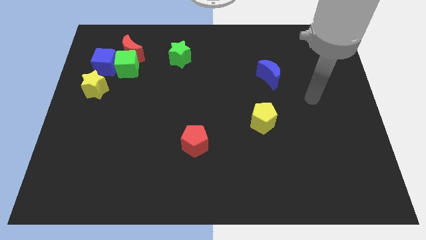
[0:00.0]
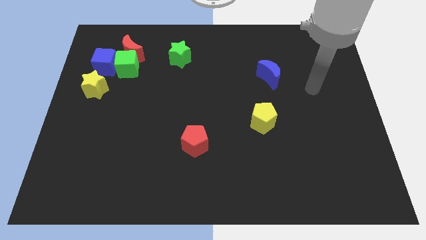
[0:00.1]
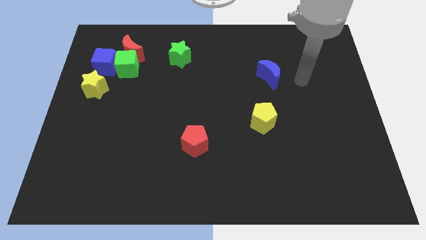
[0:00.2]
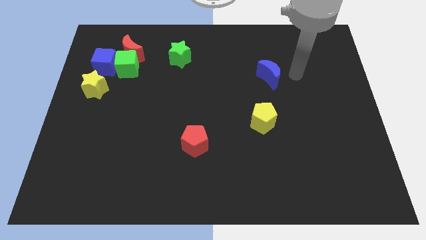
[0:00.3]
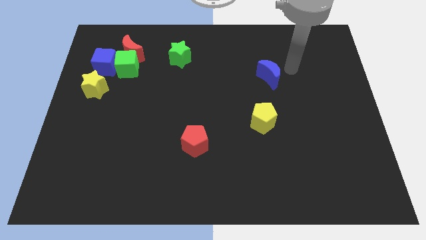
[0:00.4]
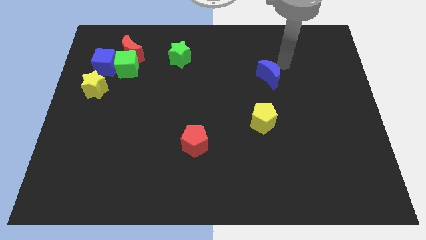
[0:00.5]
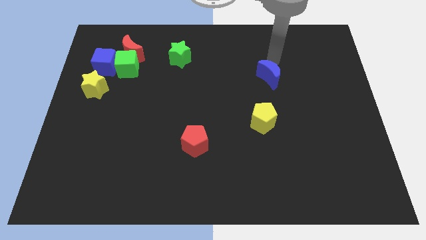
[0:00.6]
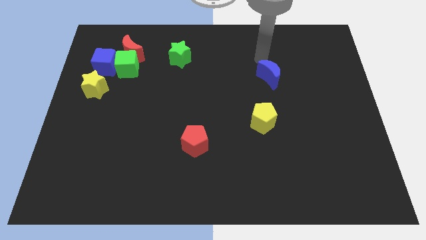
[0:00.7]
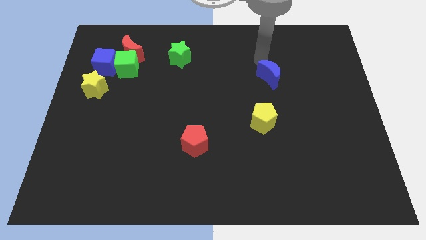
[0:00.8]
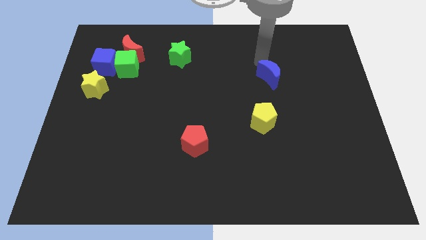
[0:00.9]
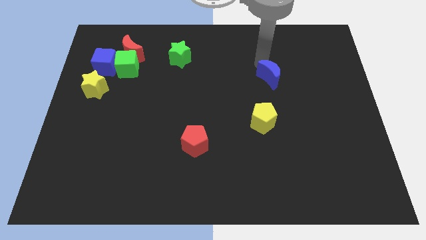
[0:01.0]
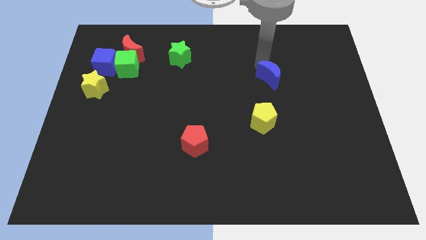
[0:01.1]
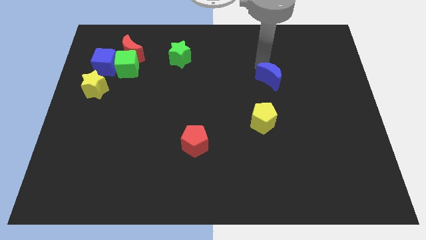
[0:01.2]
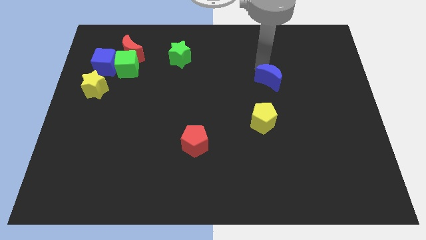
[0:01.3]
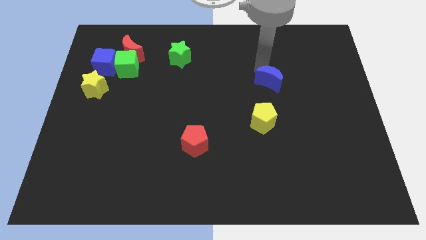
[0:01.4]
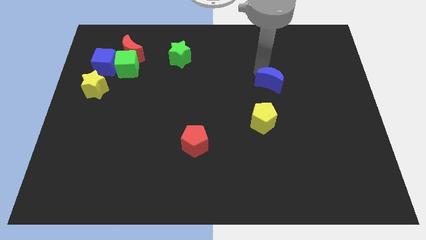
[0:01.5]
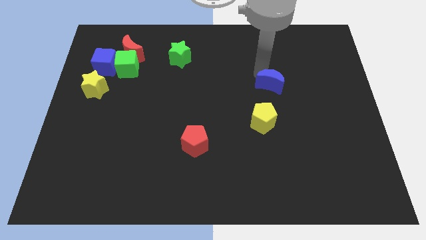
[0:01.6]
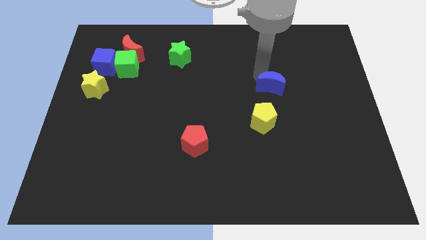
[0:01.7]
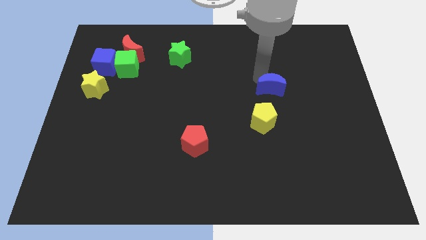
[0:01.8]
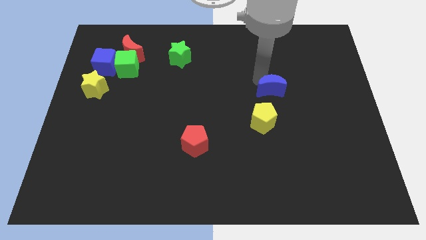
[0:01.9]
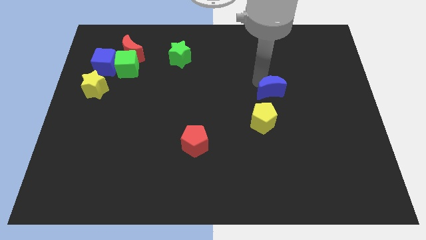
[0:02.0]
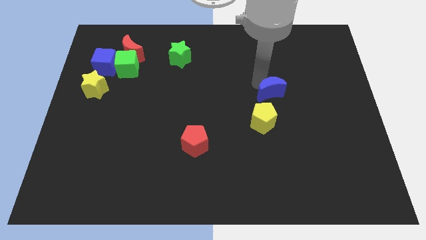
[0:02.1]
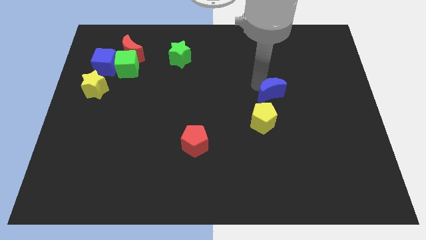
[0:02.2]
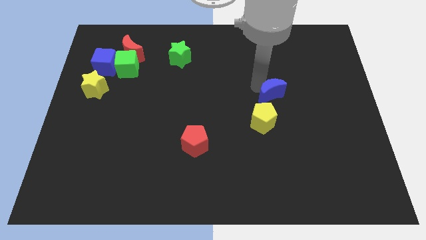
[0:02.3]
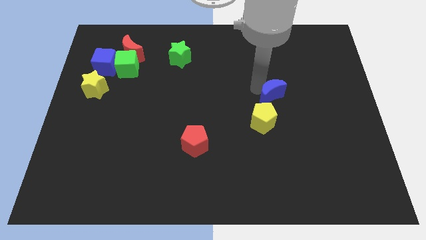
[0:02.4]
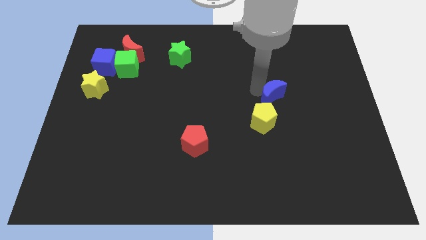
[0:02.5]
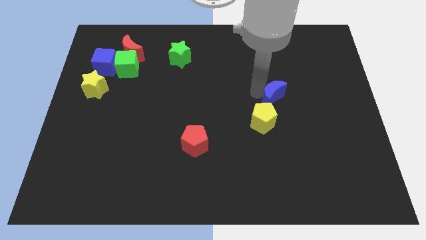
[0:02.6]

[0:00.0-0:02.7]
slightly slide the blue moon downwards

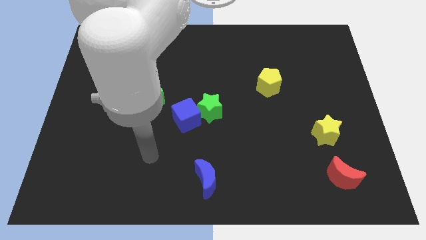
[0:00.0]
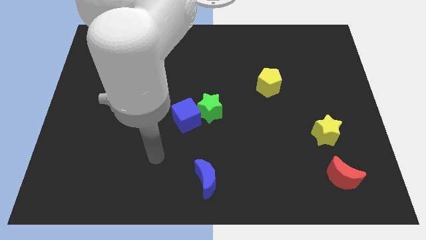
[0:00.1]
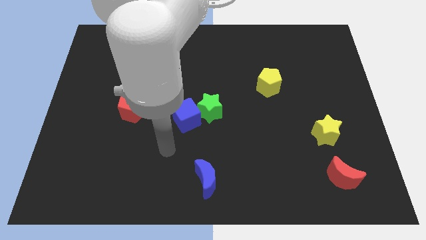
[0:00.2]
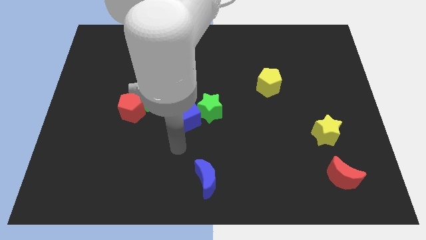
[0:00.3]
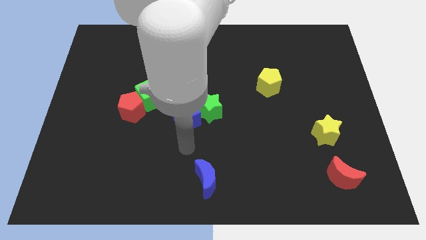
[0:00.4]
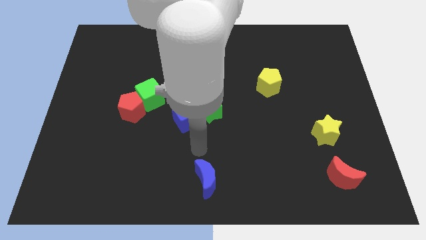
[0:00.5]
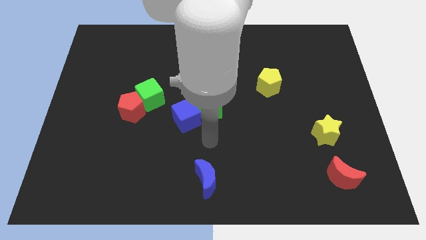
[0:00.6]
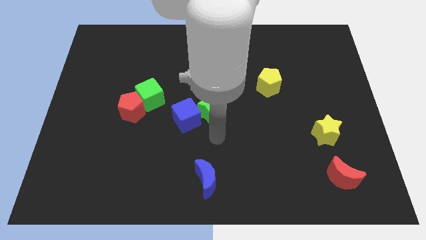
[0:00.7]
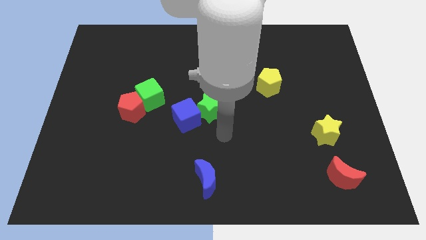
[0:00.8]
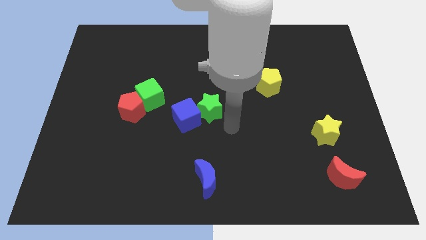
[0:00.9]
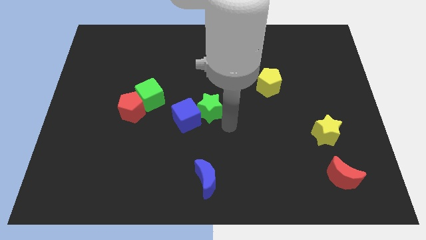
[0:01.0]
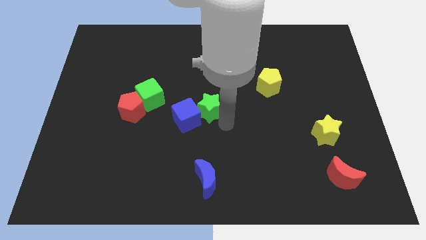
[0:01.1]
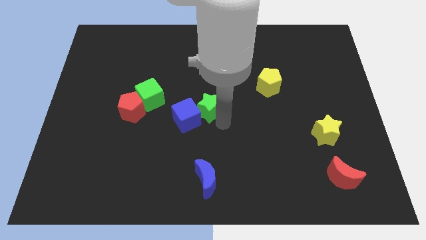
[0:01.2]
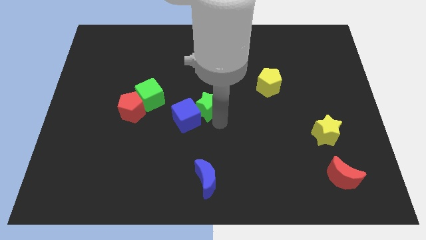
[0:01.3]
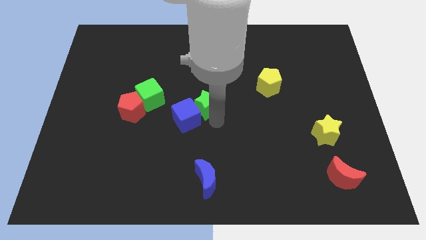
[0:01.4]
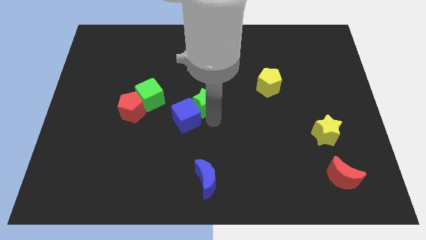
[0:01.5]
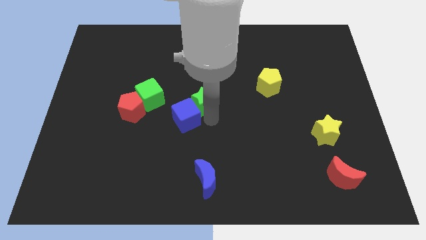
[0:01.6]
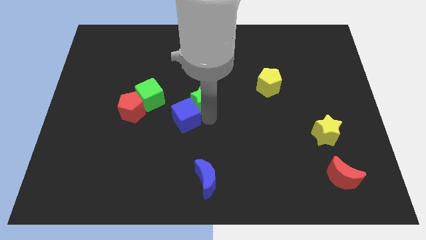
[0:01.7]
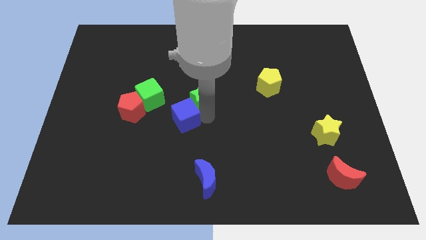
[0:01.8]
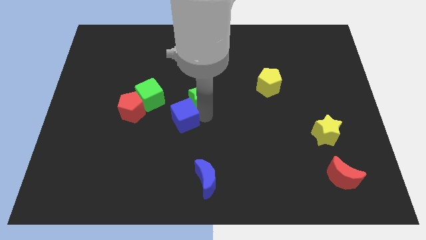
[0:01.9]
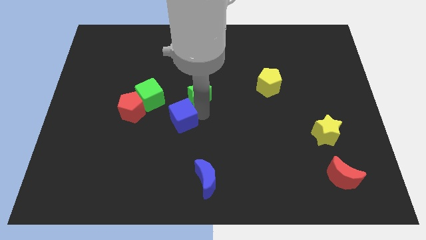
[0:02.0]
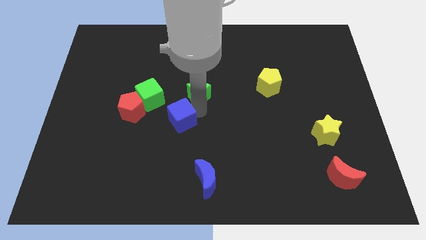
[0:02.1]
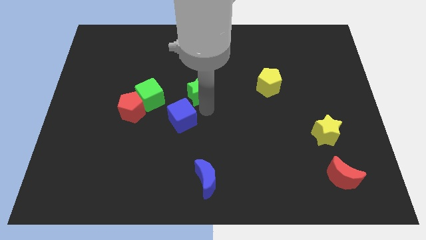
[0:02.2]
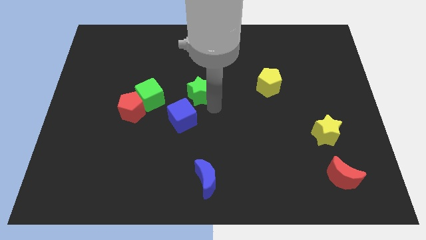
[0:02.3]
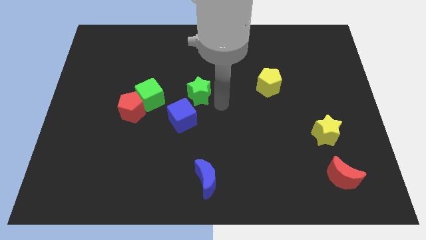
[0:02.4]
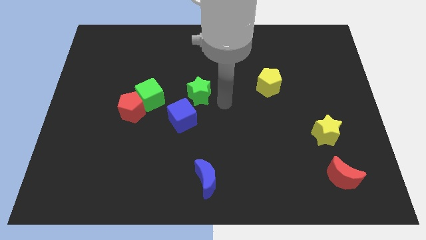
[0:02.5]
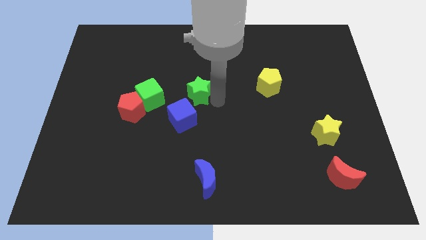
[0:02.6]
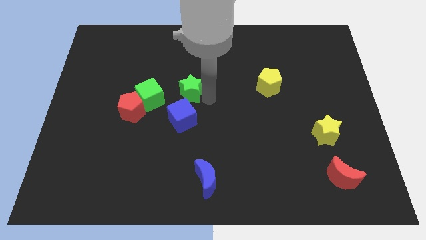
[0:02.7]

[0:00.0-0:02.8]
slide the green star a little upwards and to the left diagonally

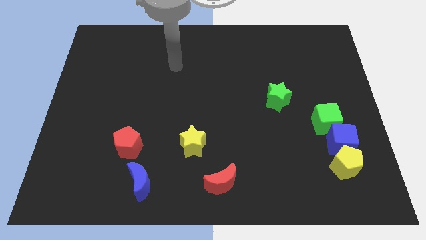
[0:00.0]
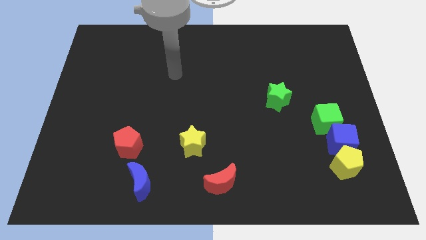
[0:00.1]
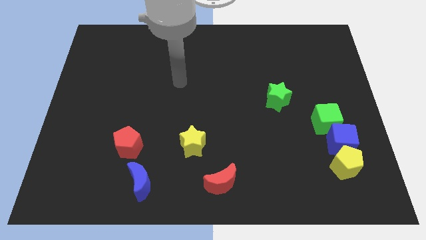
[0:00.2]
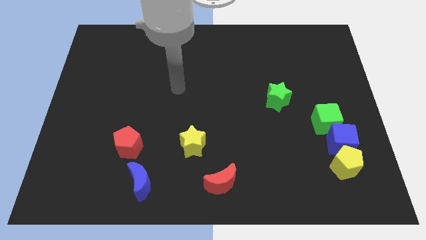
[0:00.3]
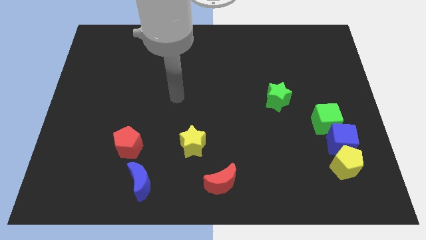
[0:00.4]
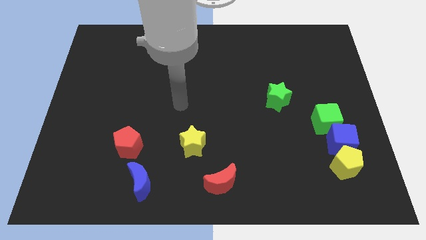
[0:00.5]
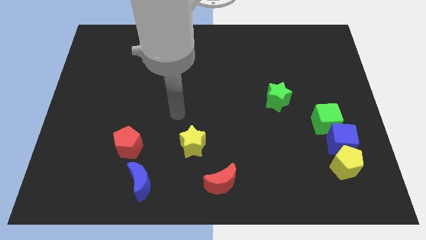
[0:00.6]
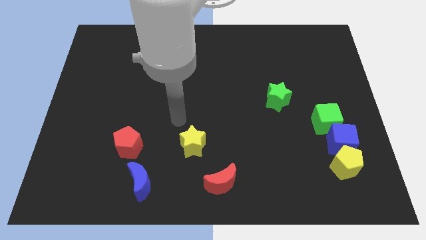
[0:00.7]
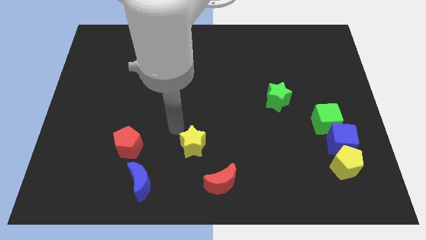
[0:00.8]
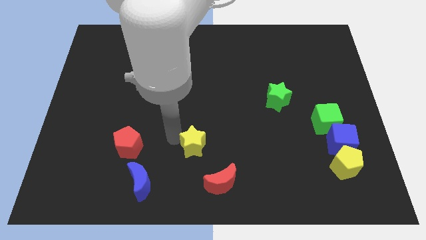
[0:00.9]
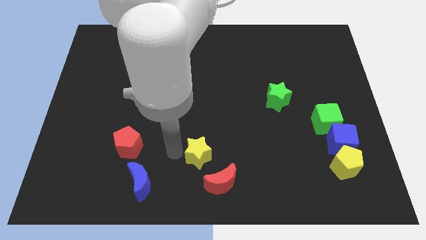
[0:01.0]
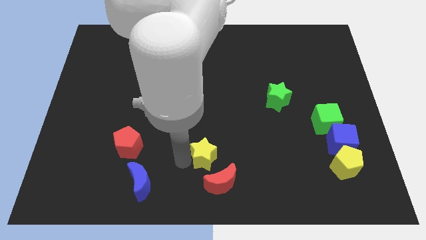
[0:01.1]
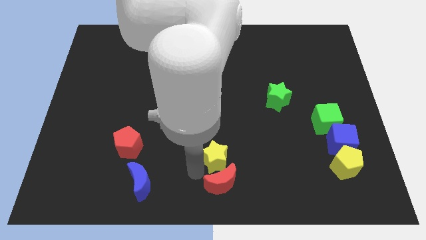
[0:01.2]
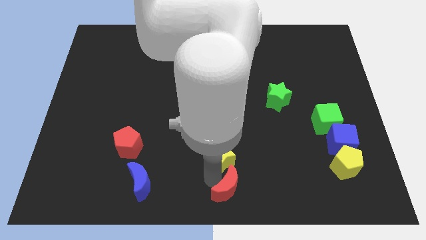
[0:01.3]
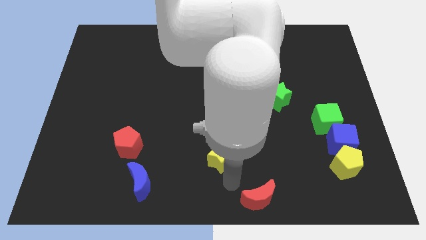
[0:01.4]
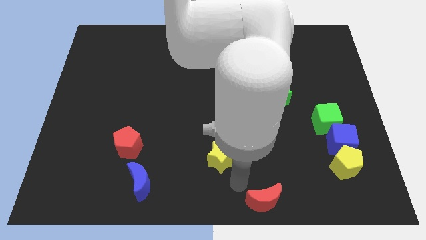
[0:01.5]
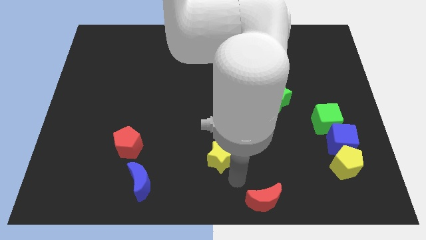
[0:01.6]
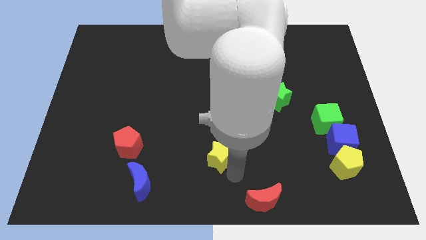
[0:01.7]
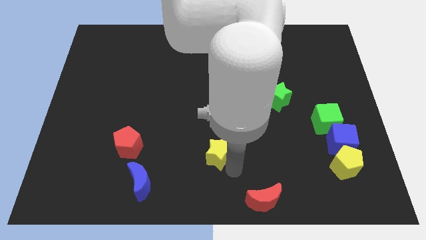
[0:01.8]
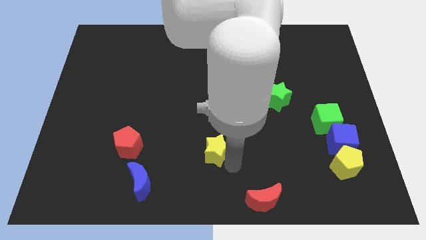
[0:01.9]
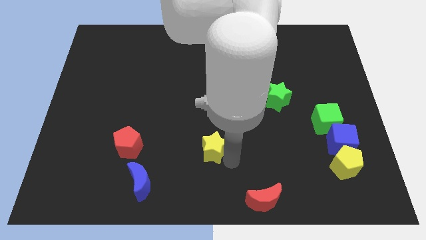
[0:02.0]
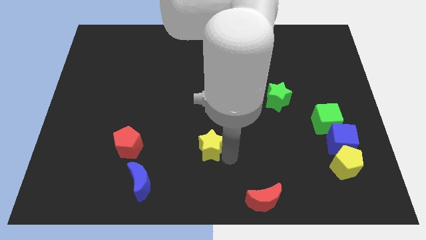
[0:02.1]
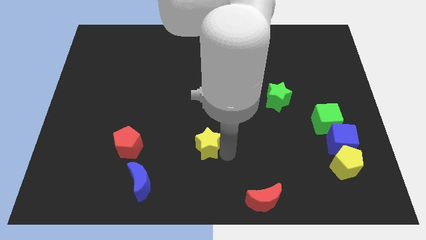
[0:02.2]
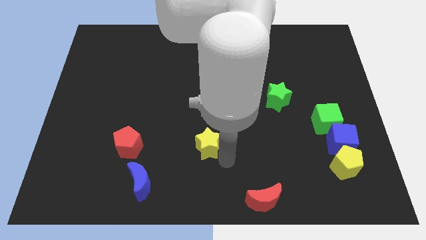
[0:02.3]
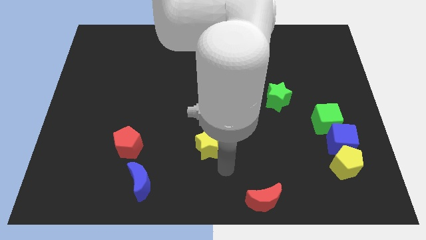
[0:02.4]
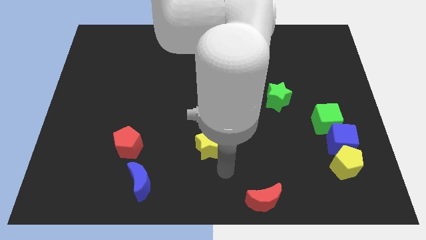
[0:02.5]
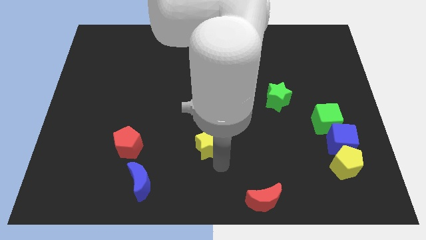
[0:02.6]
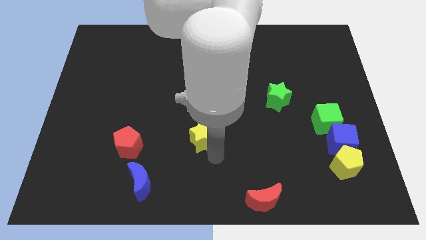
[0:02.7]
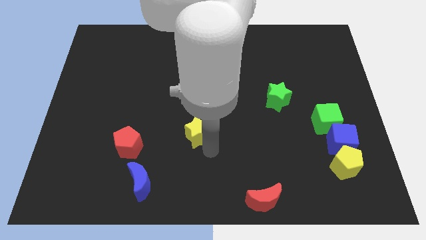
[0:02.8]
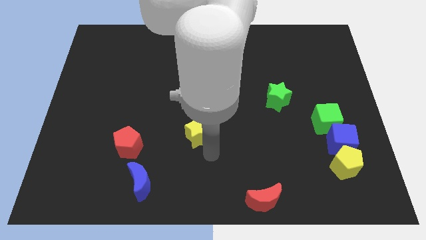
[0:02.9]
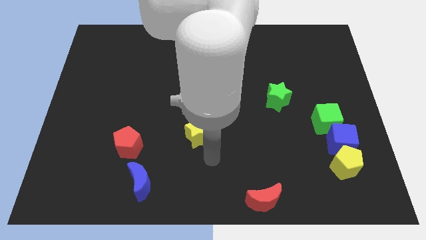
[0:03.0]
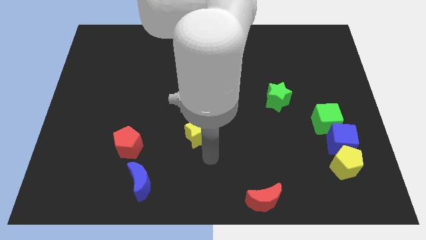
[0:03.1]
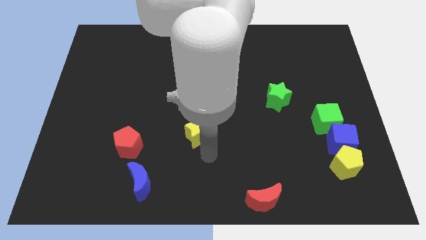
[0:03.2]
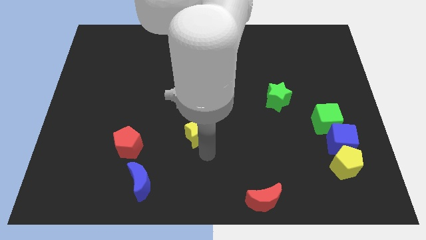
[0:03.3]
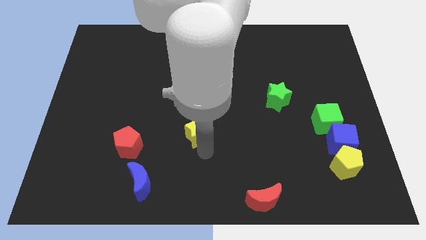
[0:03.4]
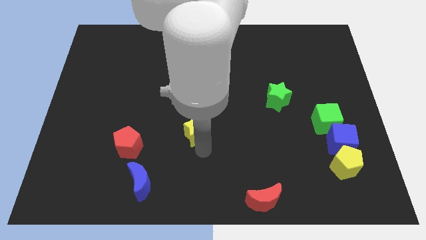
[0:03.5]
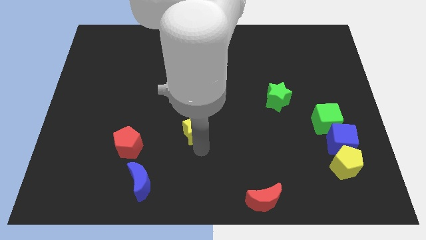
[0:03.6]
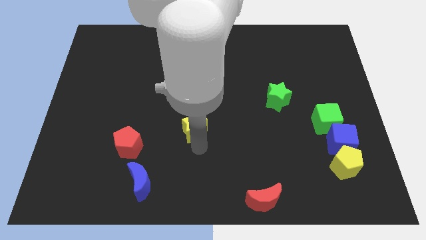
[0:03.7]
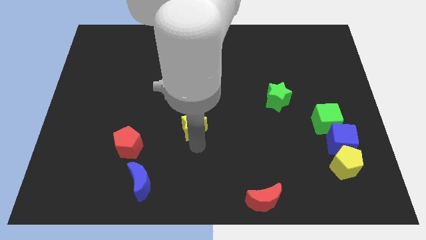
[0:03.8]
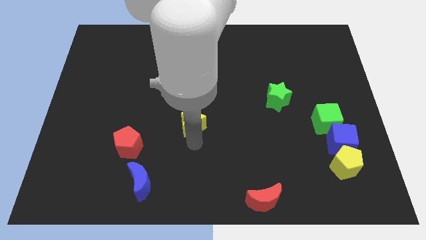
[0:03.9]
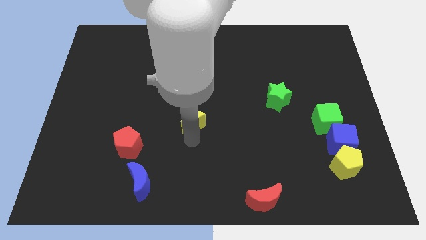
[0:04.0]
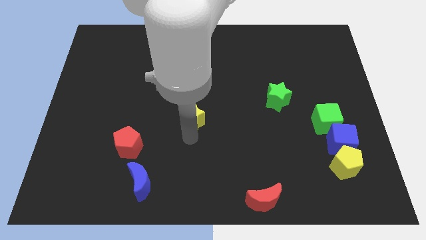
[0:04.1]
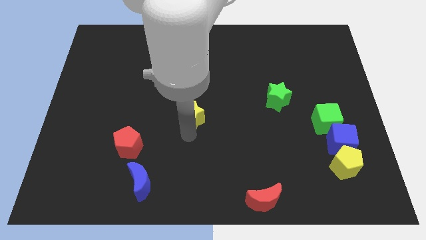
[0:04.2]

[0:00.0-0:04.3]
slide the yellow star up a bit
